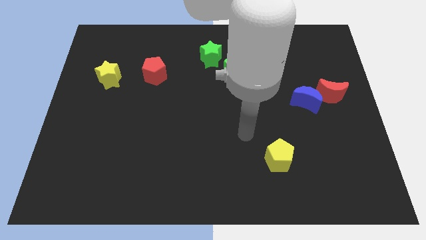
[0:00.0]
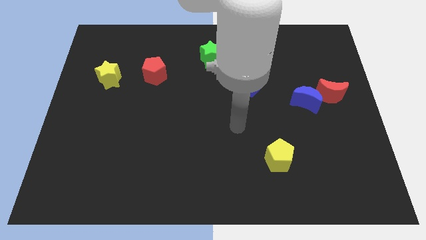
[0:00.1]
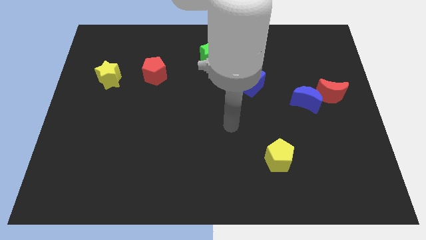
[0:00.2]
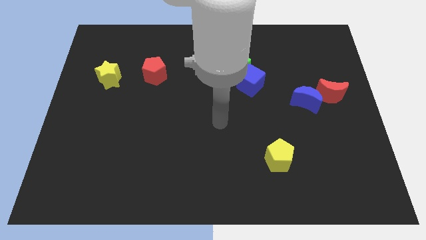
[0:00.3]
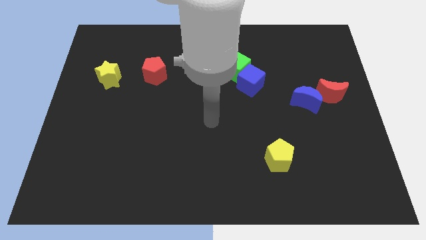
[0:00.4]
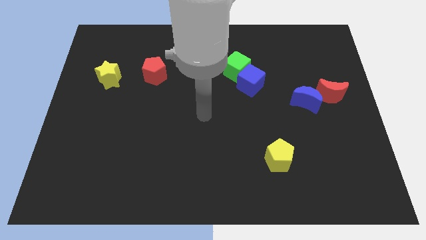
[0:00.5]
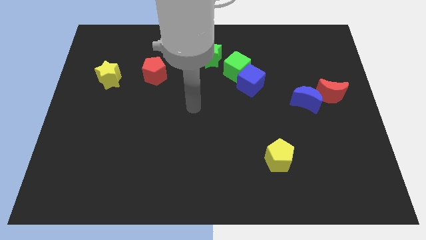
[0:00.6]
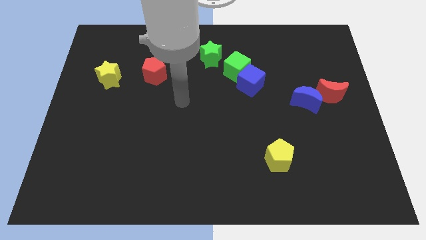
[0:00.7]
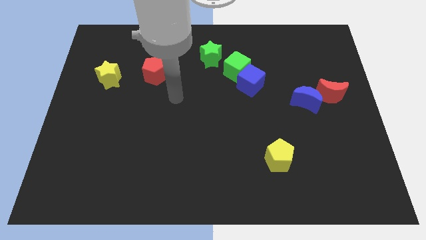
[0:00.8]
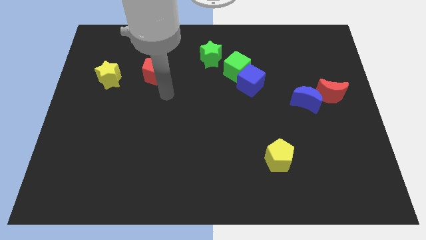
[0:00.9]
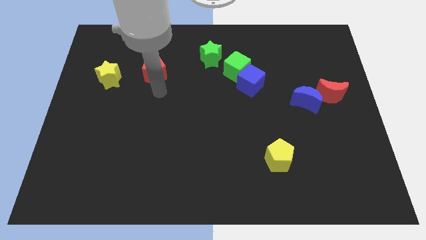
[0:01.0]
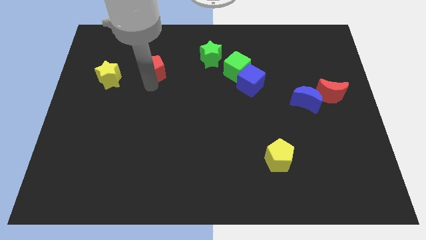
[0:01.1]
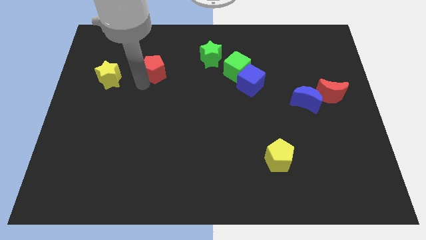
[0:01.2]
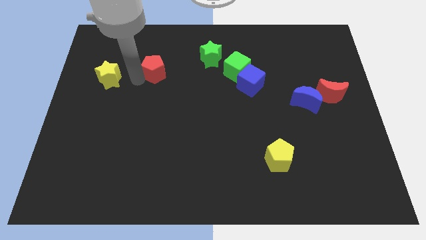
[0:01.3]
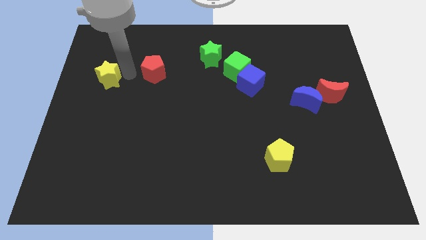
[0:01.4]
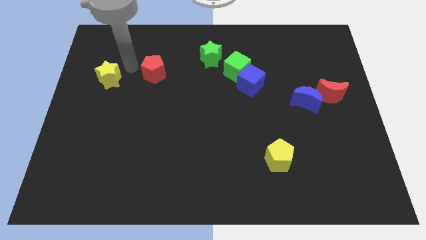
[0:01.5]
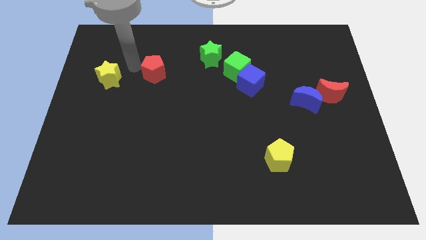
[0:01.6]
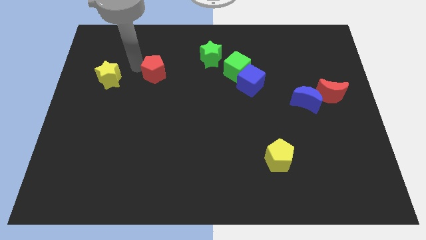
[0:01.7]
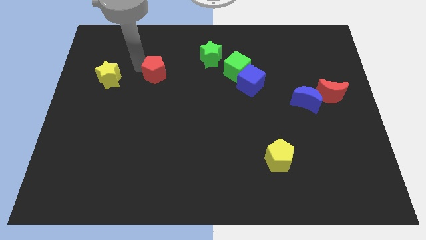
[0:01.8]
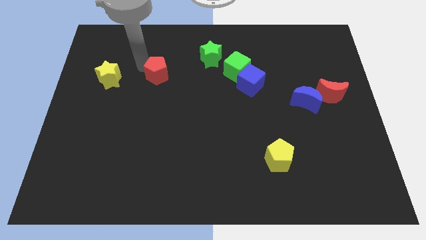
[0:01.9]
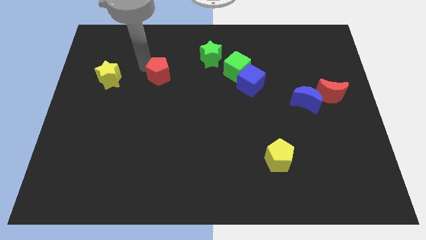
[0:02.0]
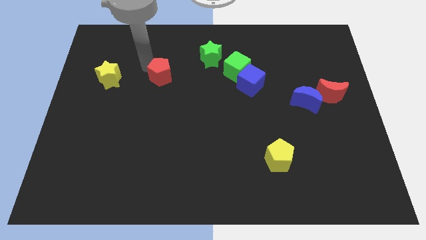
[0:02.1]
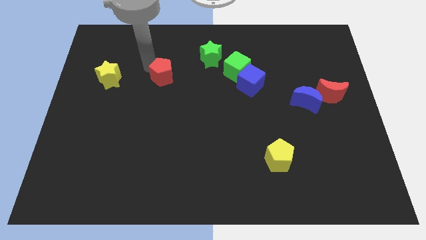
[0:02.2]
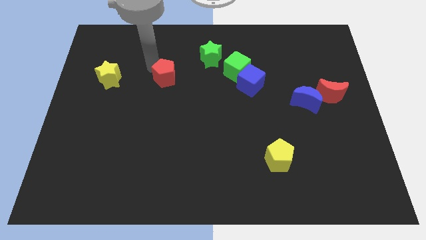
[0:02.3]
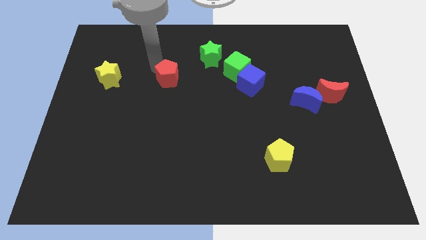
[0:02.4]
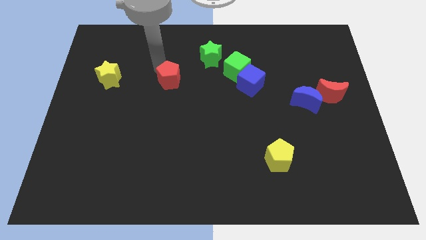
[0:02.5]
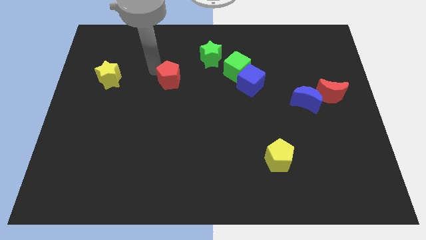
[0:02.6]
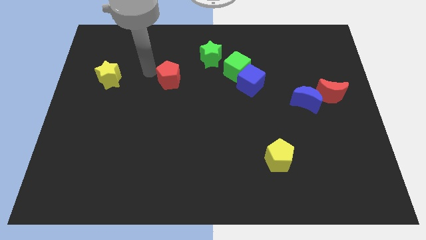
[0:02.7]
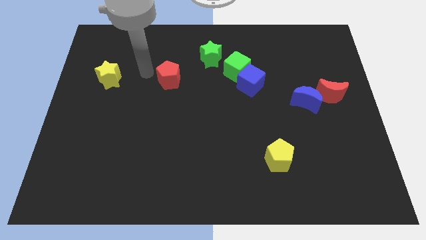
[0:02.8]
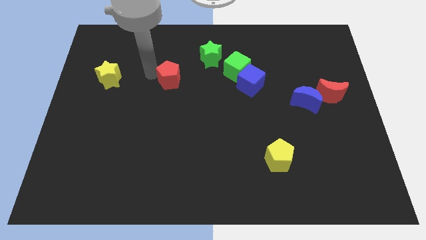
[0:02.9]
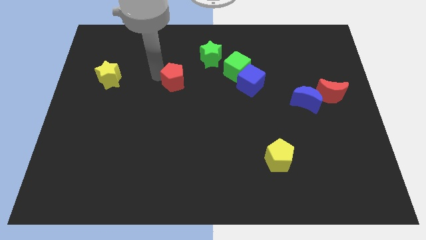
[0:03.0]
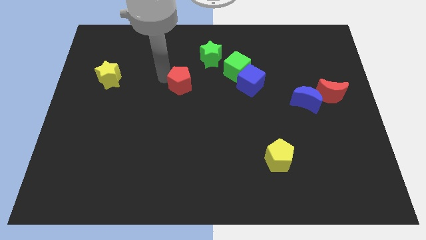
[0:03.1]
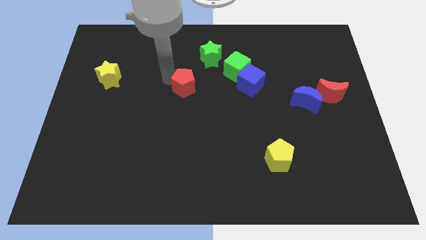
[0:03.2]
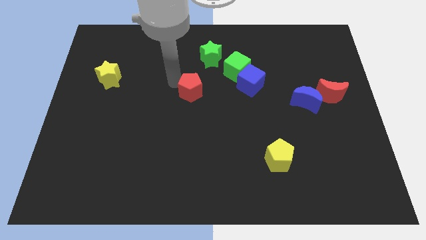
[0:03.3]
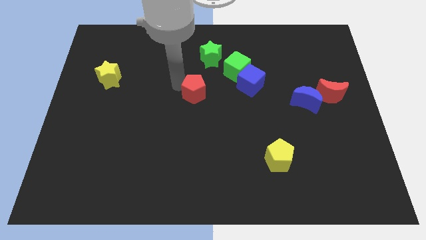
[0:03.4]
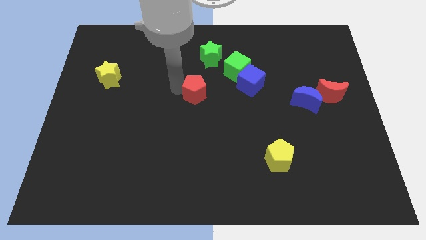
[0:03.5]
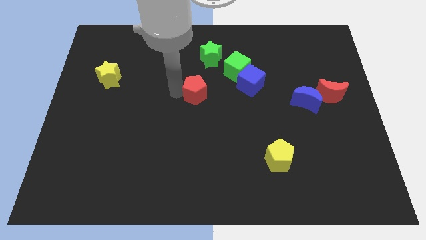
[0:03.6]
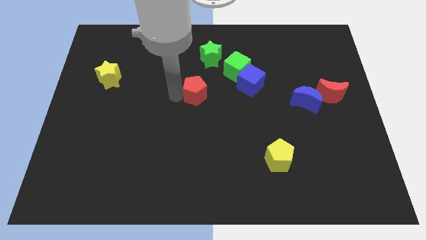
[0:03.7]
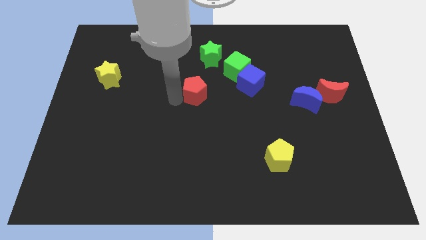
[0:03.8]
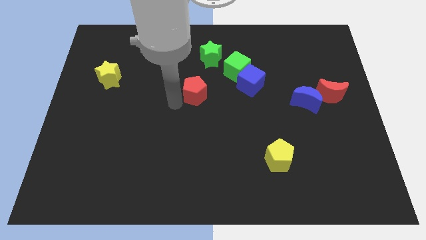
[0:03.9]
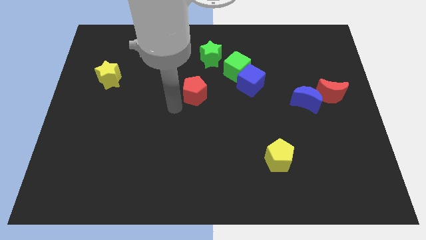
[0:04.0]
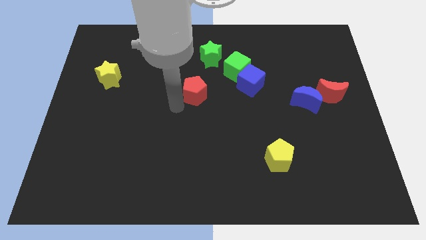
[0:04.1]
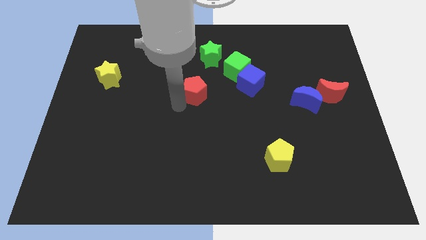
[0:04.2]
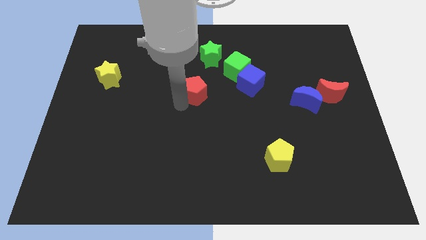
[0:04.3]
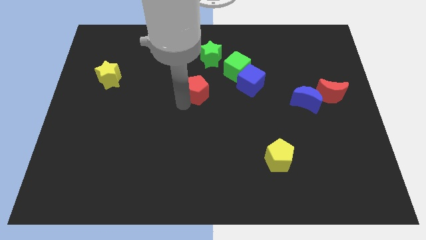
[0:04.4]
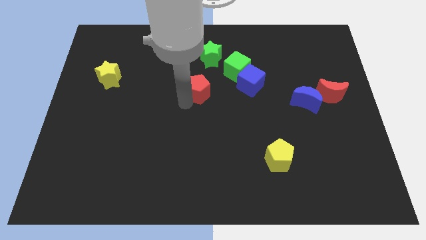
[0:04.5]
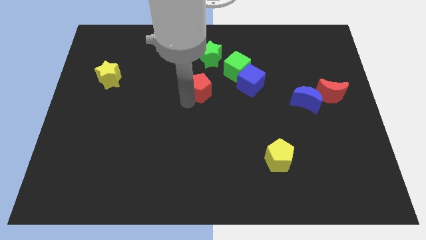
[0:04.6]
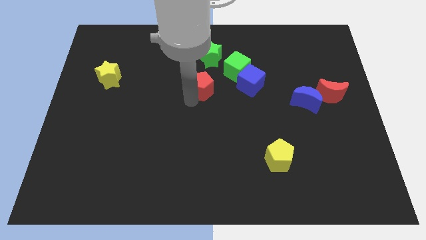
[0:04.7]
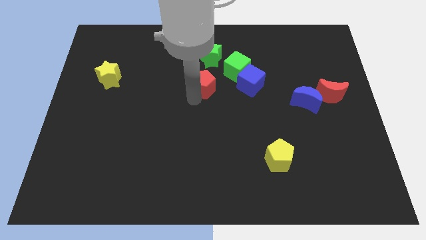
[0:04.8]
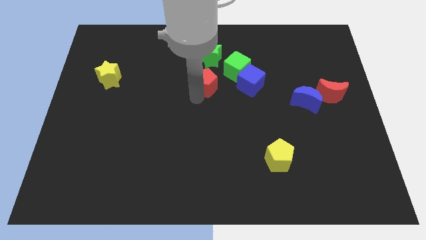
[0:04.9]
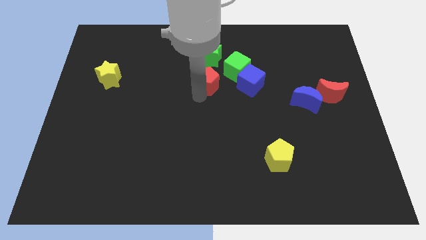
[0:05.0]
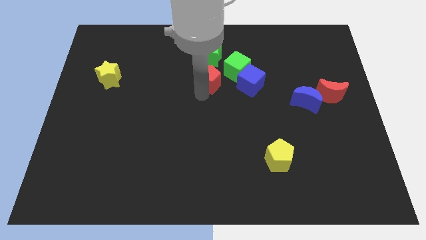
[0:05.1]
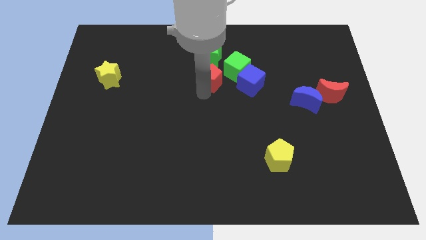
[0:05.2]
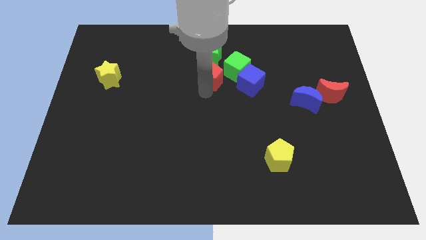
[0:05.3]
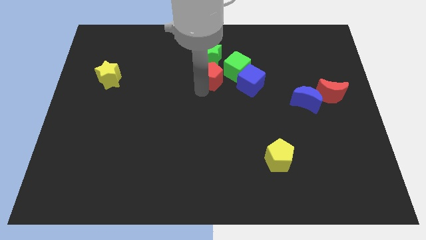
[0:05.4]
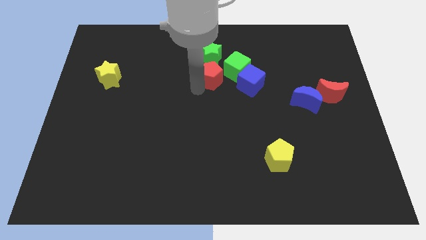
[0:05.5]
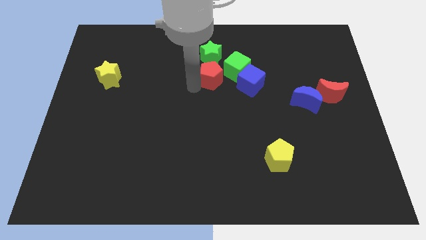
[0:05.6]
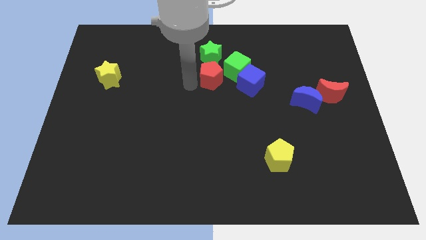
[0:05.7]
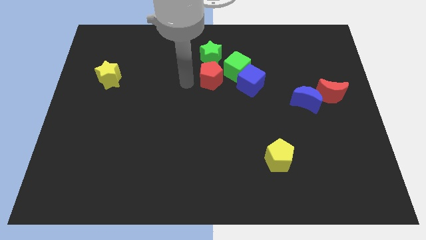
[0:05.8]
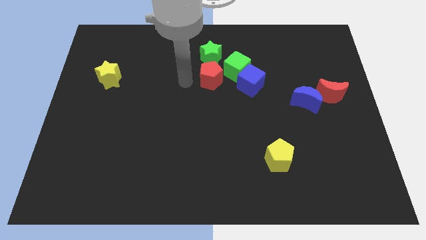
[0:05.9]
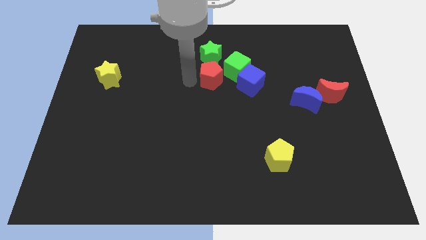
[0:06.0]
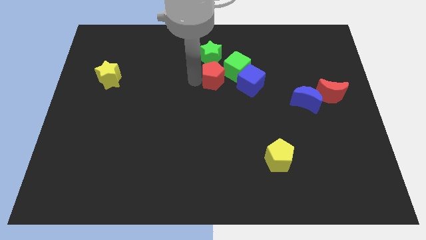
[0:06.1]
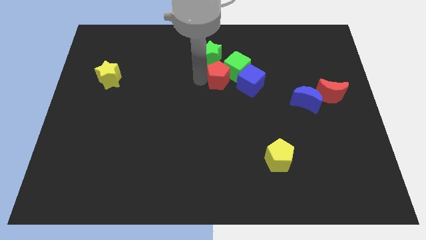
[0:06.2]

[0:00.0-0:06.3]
push the red pentagon towards the green cube

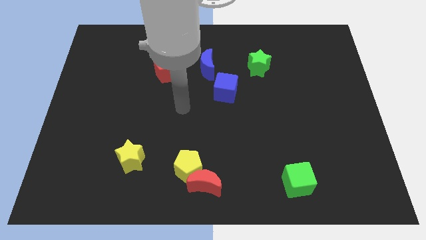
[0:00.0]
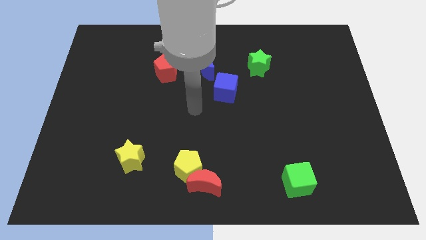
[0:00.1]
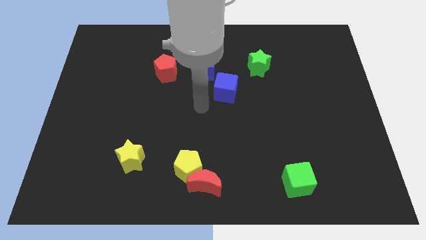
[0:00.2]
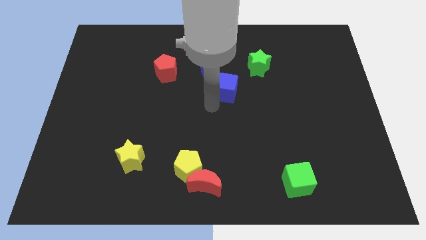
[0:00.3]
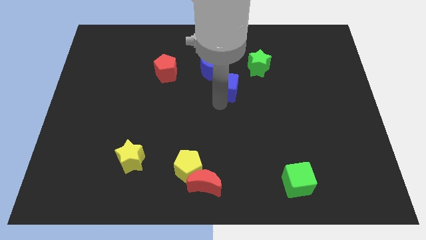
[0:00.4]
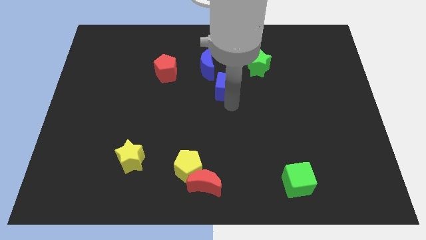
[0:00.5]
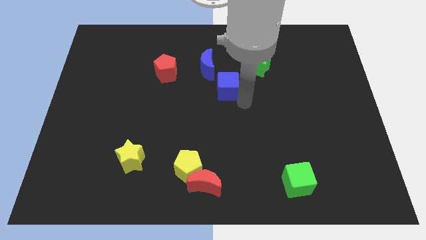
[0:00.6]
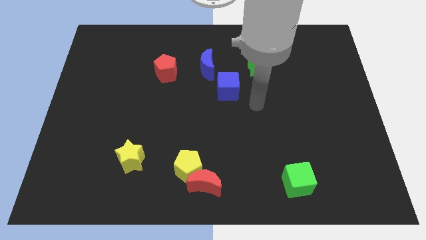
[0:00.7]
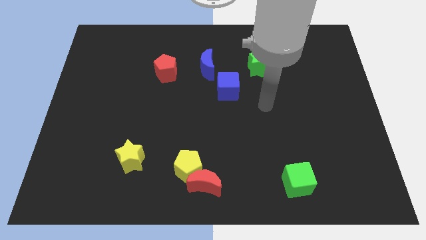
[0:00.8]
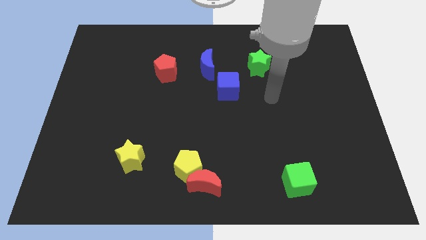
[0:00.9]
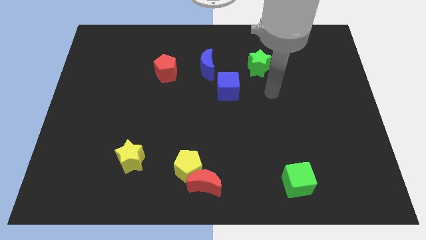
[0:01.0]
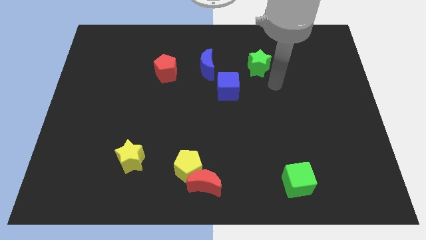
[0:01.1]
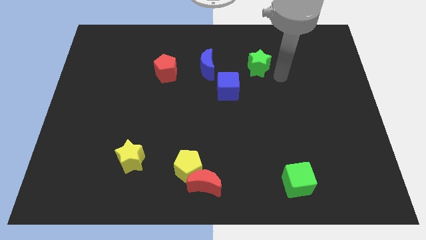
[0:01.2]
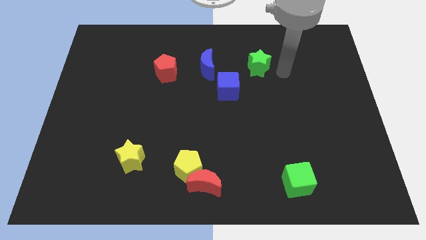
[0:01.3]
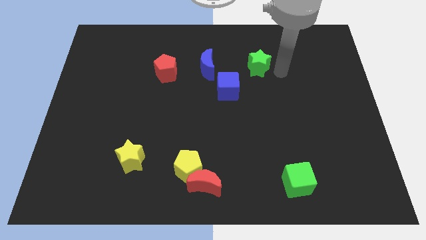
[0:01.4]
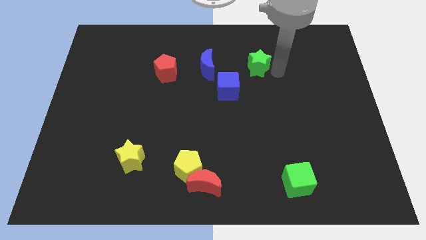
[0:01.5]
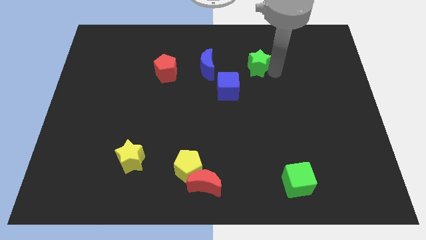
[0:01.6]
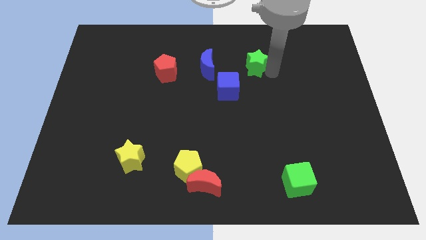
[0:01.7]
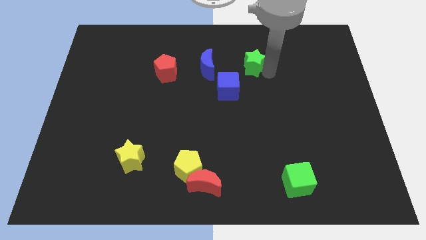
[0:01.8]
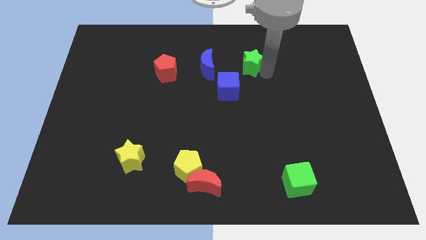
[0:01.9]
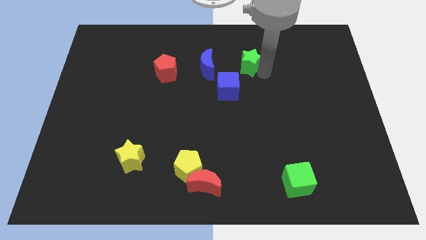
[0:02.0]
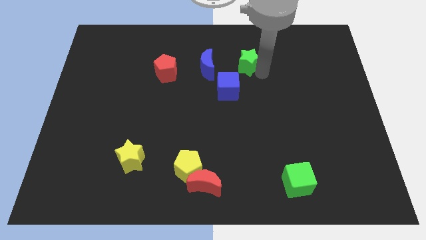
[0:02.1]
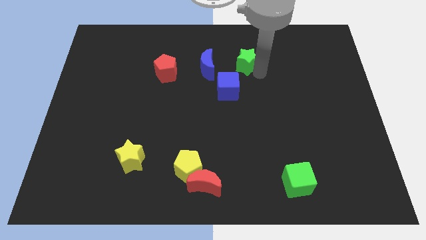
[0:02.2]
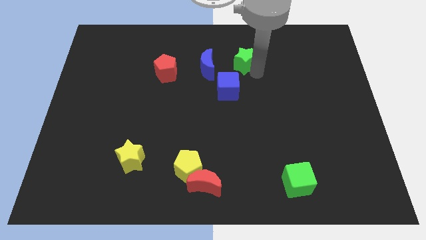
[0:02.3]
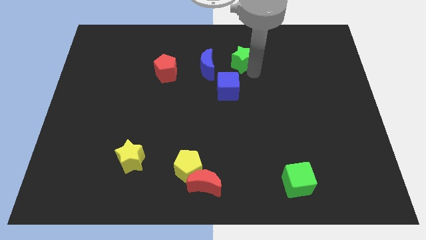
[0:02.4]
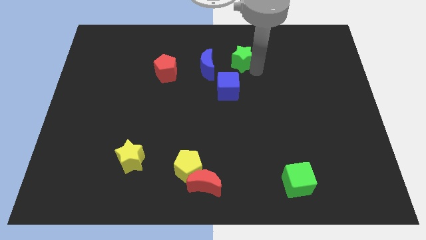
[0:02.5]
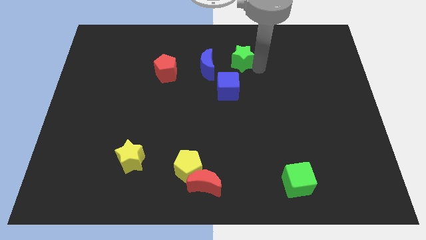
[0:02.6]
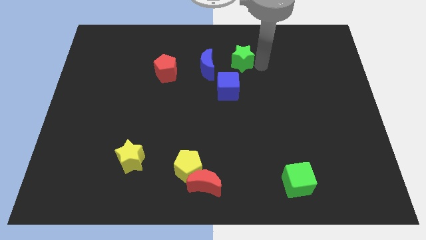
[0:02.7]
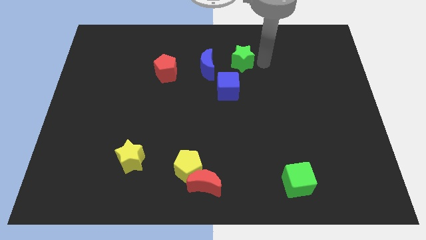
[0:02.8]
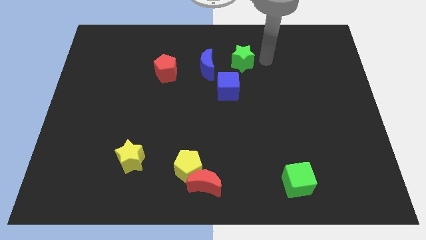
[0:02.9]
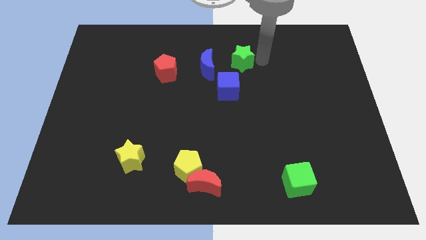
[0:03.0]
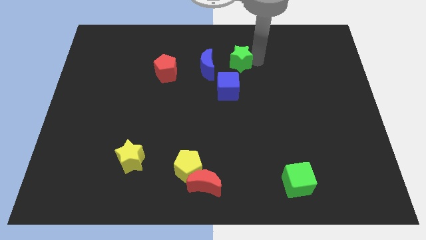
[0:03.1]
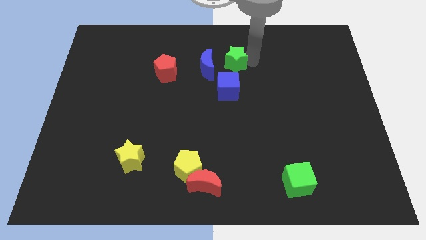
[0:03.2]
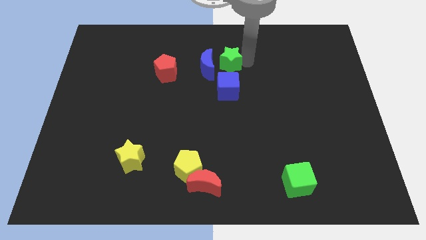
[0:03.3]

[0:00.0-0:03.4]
move the green star next to the blue moon
